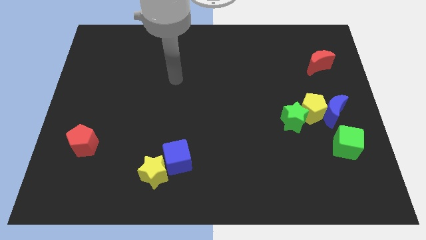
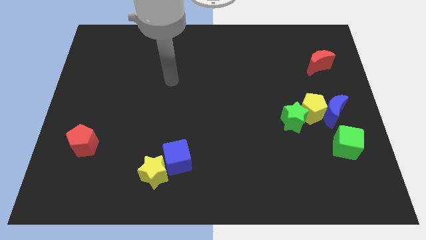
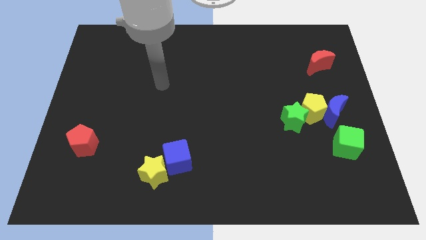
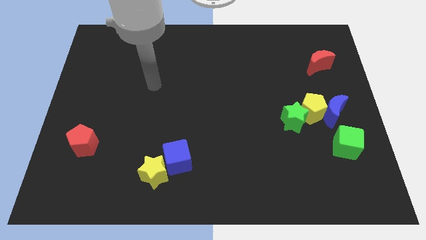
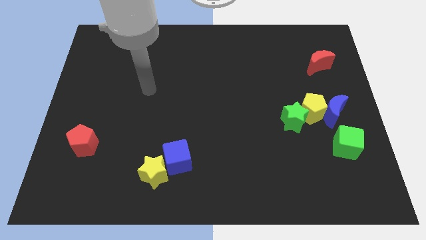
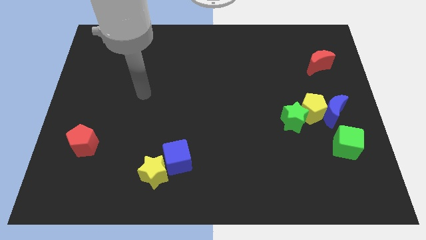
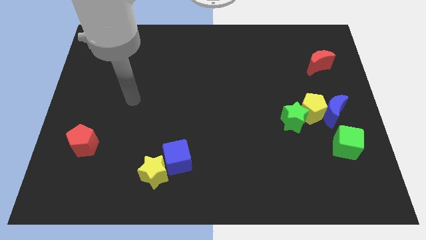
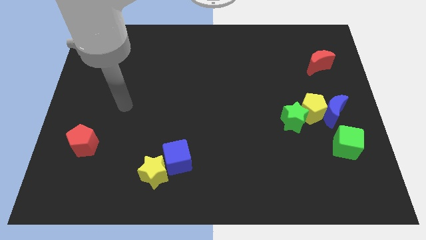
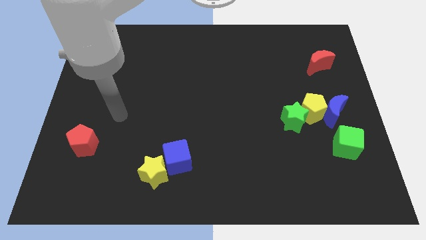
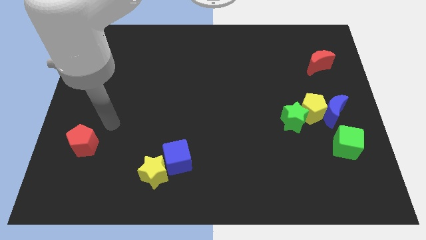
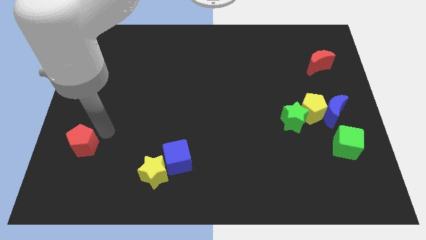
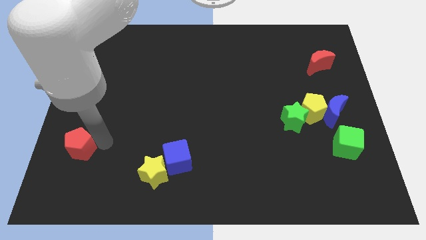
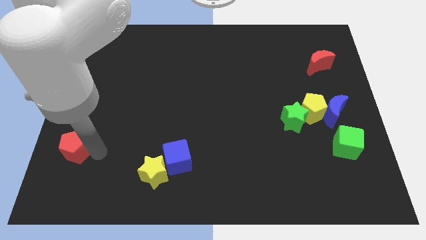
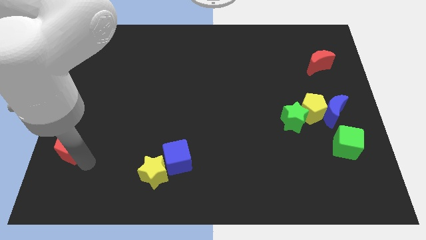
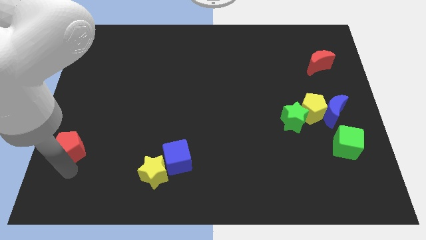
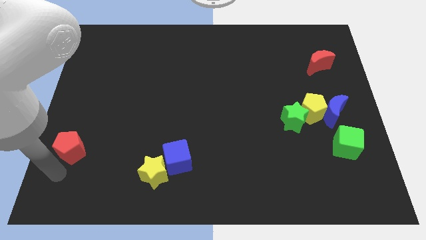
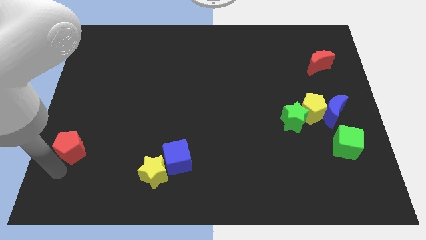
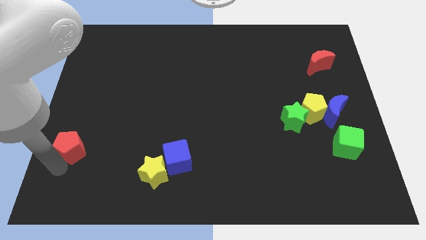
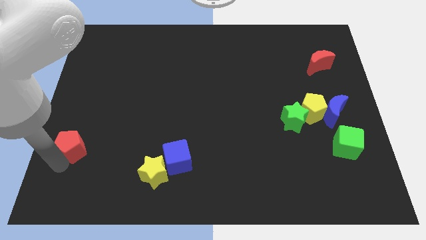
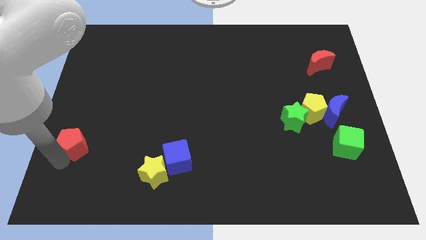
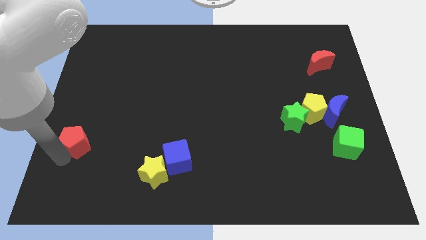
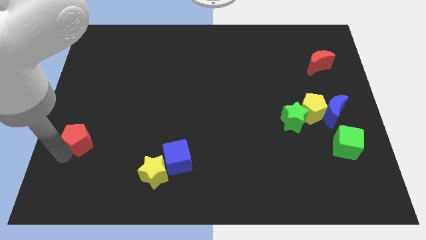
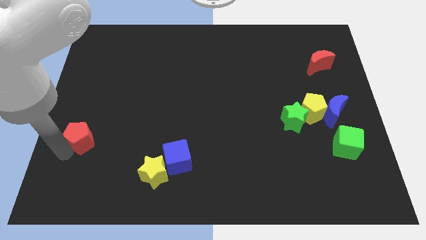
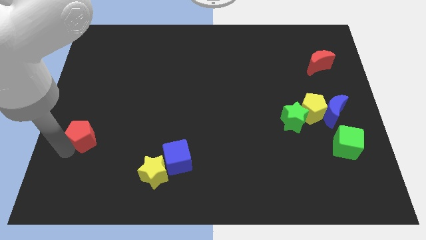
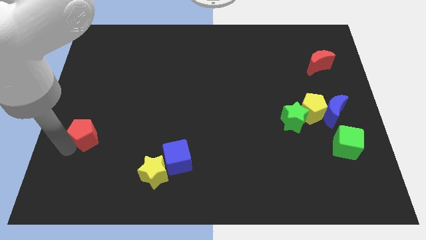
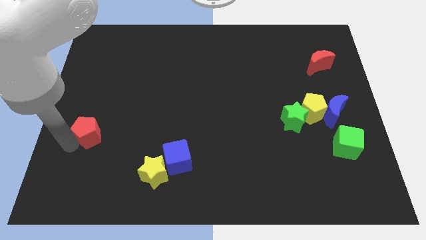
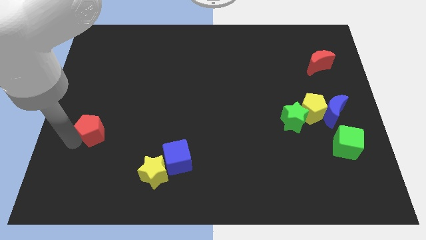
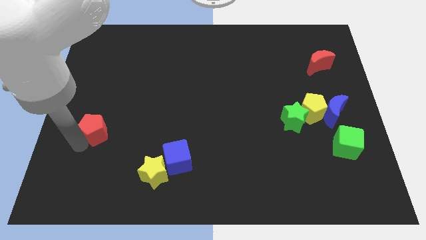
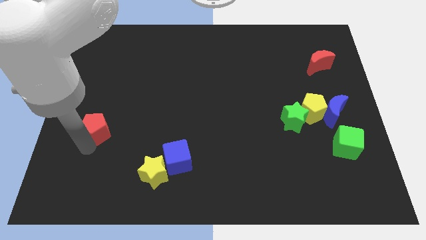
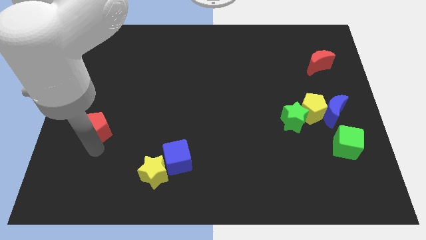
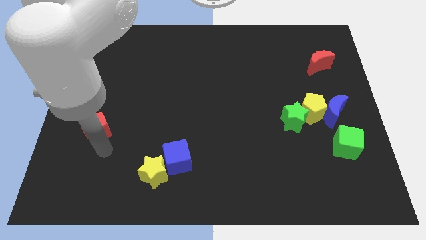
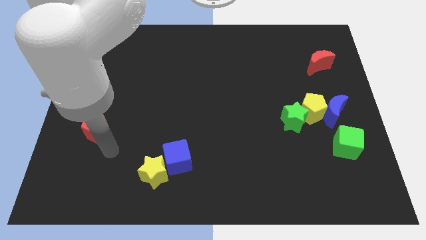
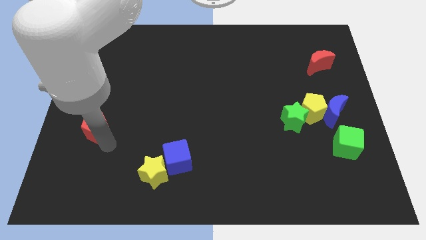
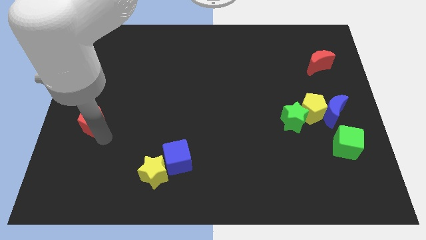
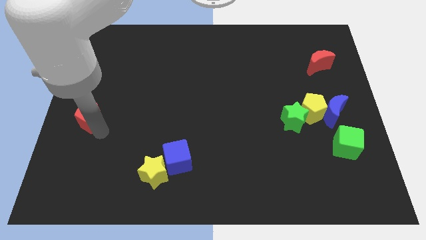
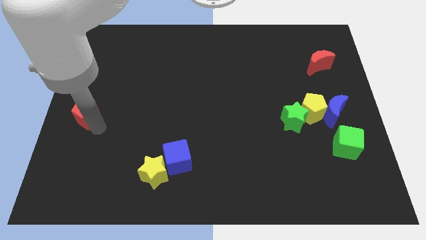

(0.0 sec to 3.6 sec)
slightly slide the red pentagon upwards

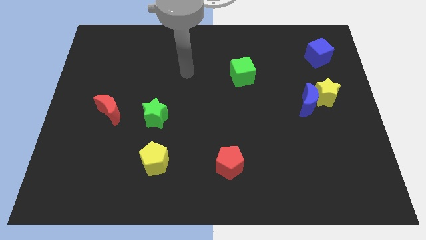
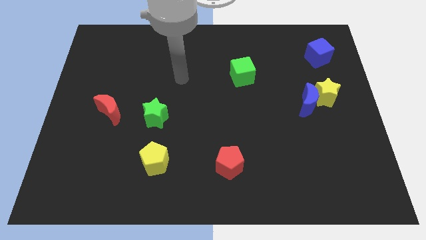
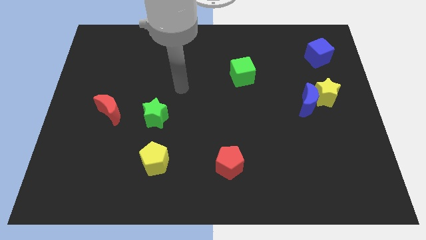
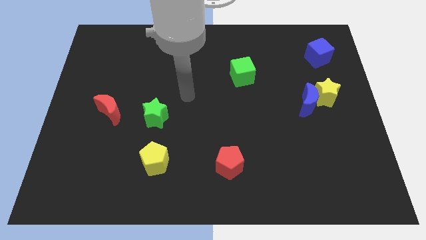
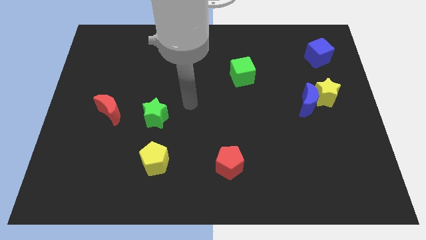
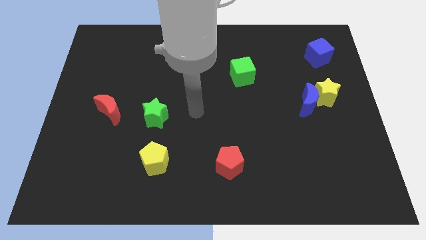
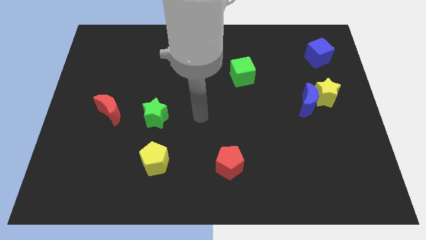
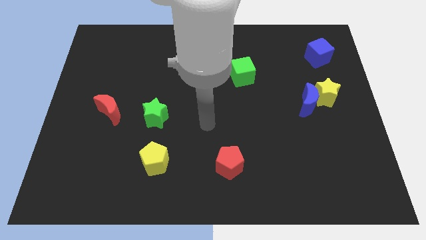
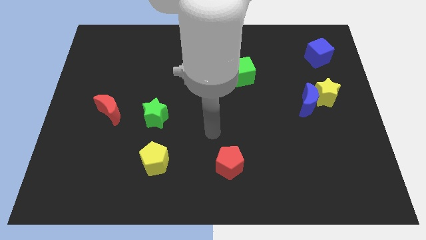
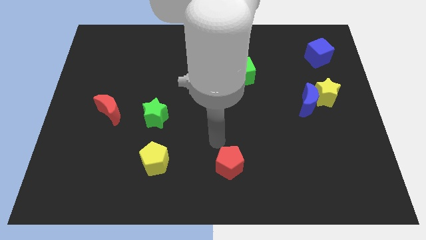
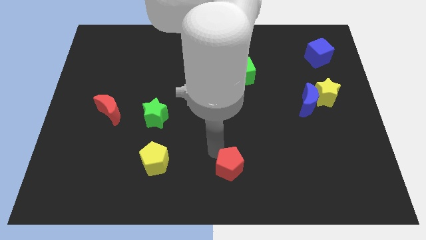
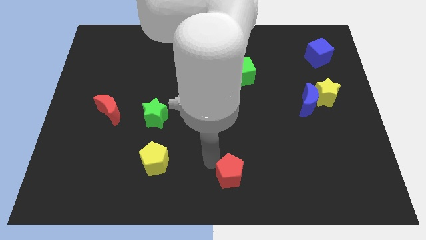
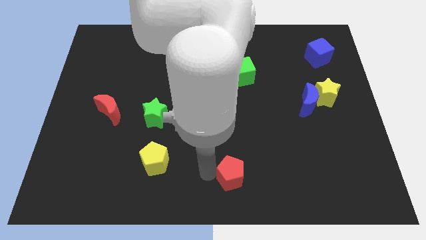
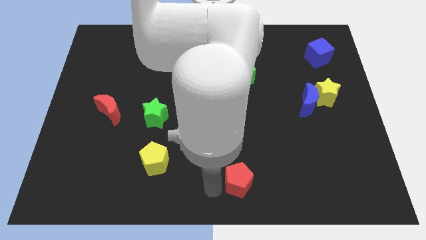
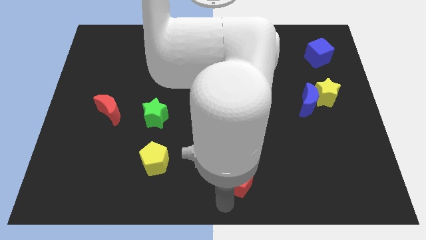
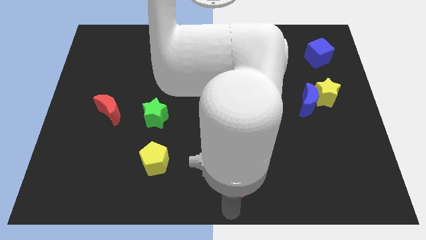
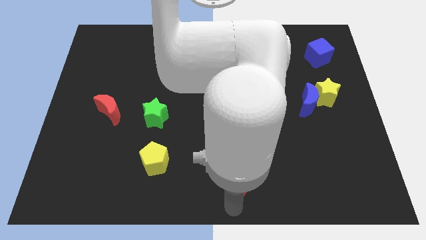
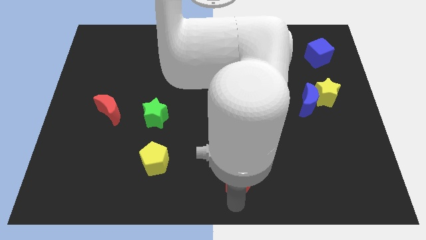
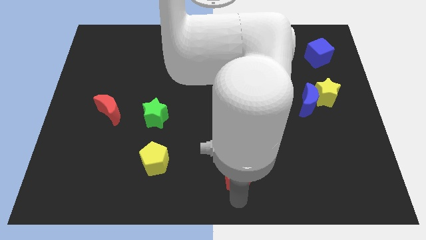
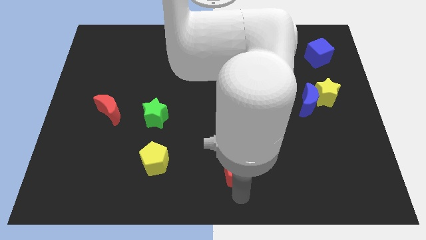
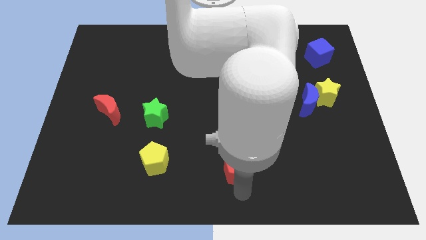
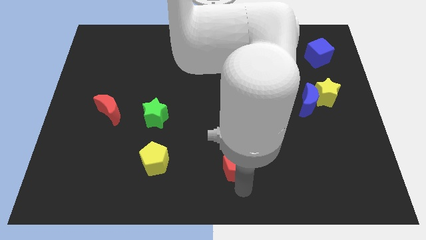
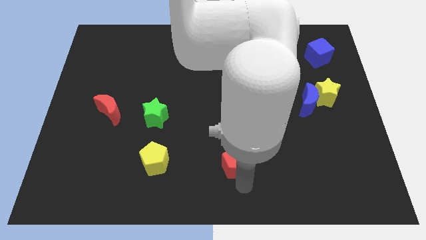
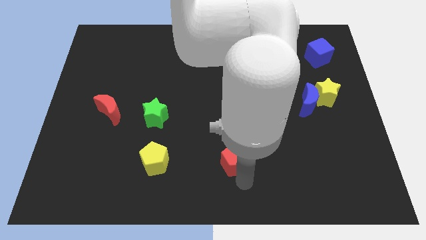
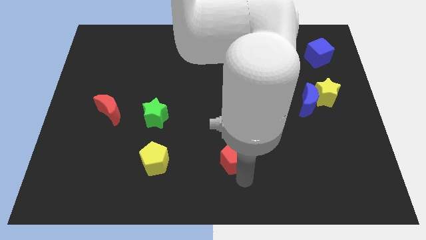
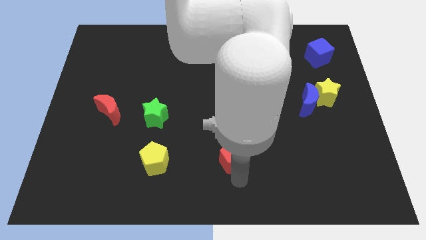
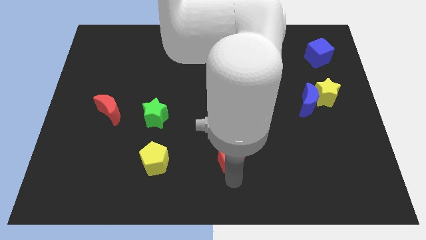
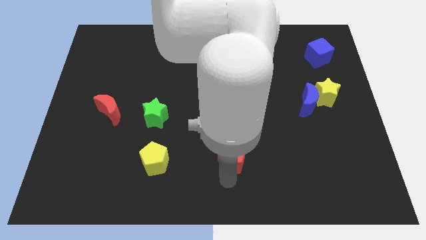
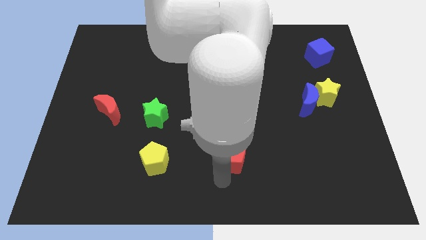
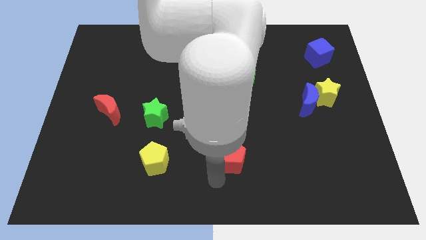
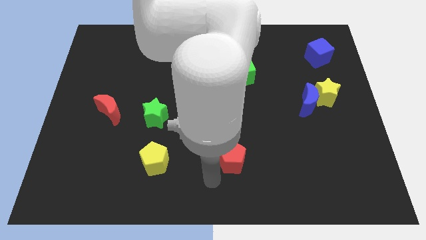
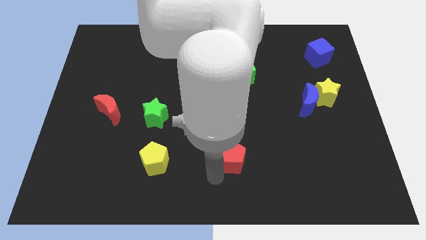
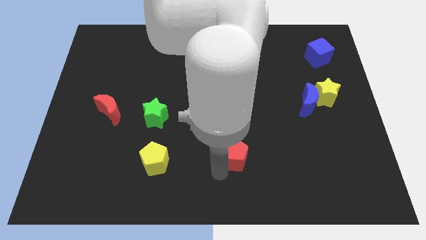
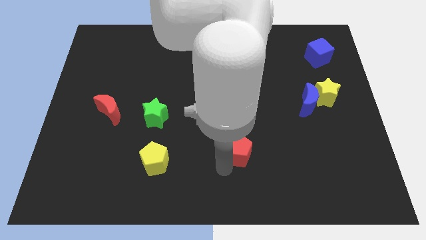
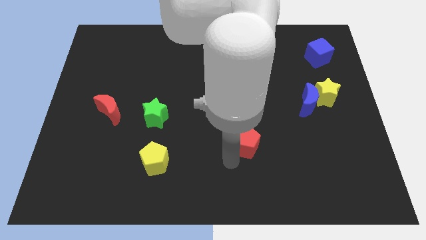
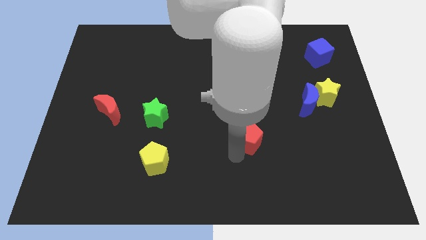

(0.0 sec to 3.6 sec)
move the red pentagon upwards and right diagonally a little bit

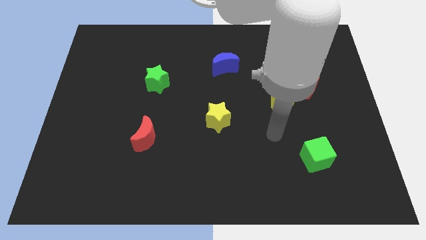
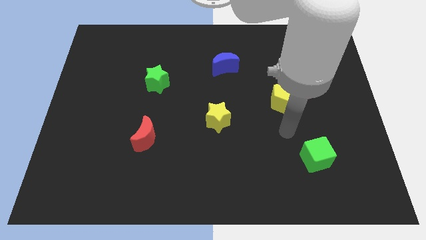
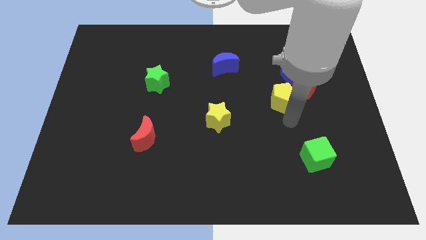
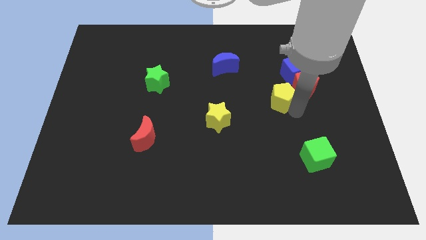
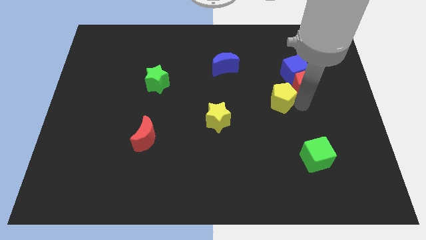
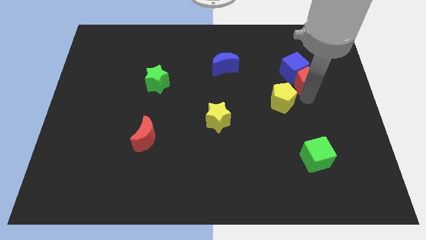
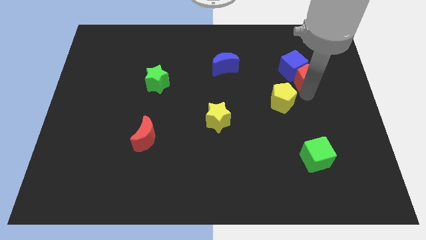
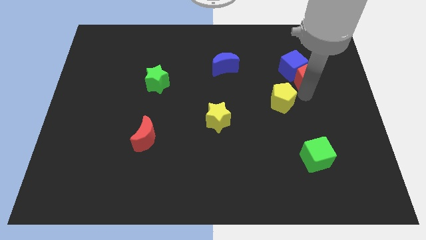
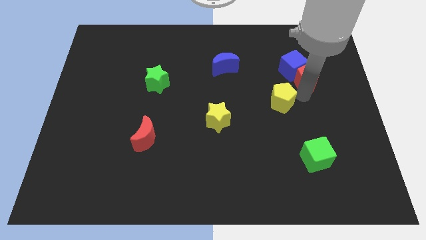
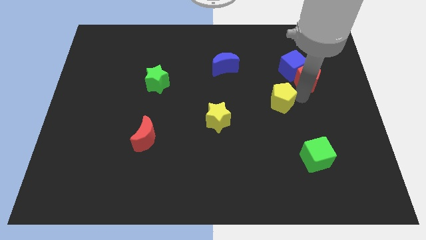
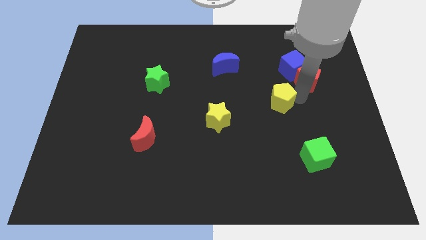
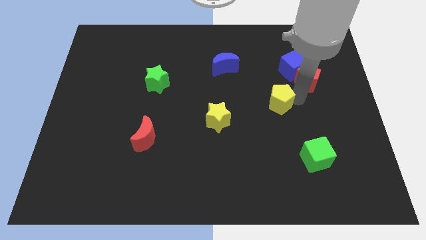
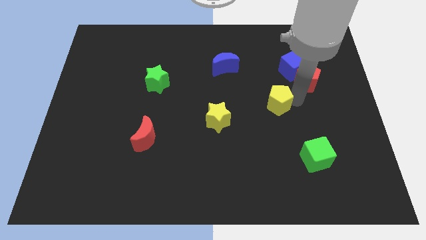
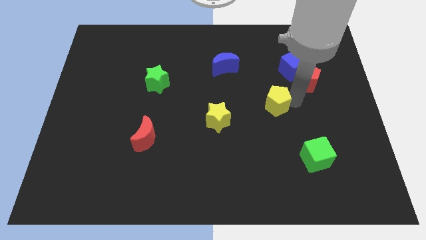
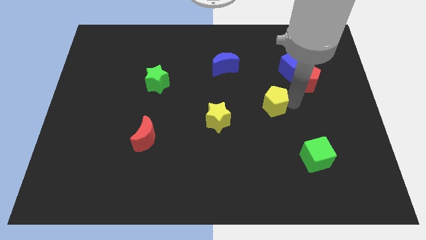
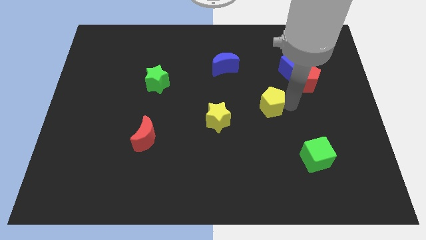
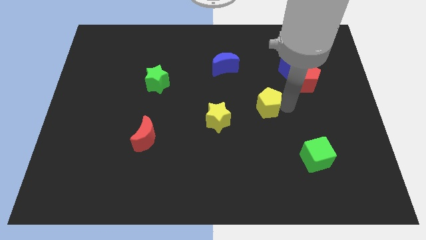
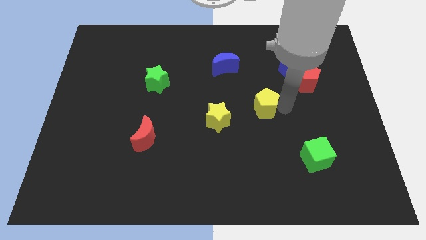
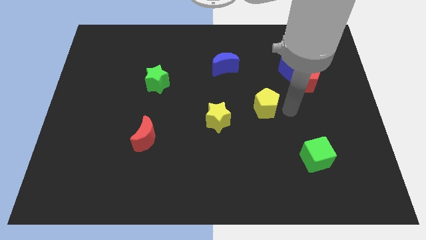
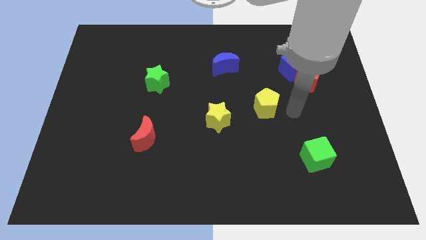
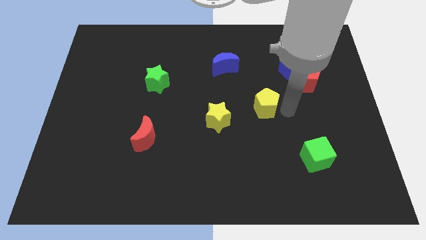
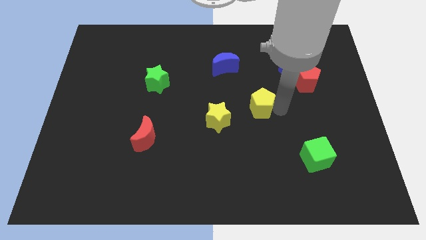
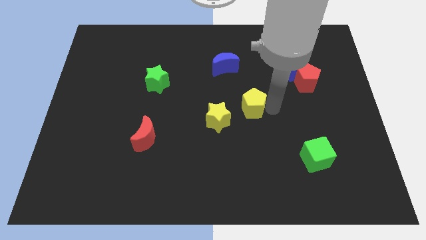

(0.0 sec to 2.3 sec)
slide the yellow pentagon a little left
